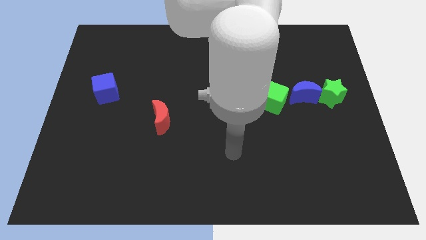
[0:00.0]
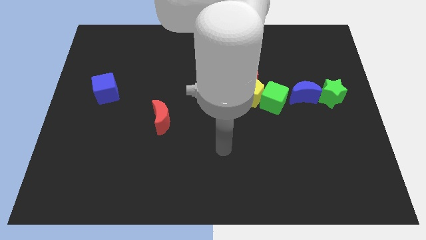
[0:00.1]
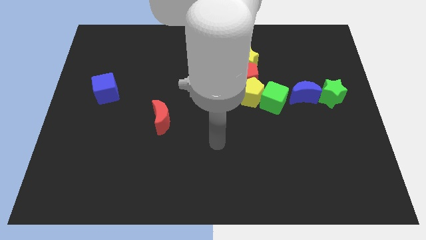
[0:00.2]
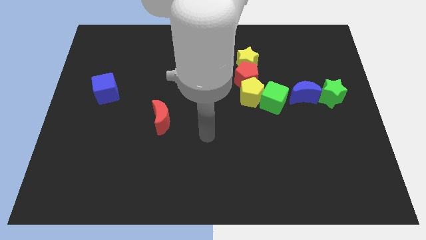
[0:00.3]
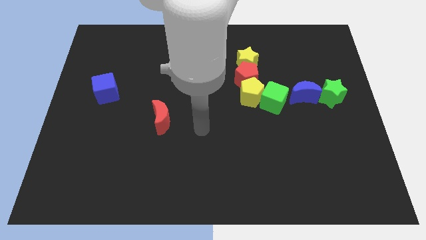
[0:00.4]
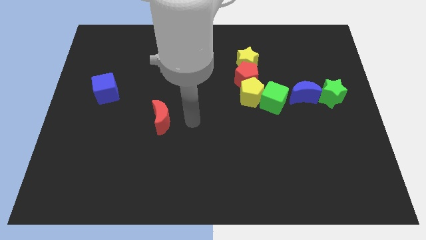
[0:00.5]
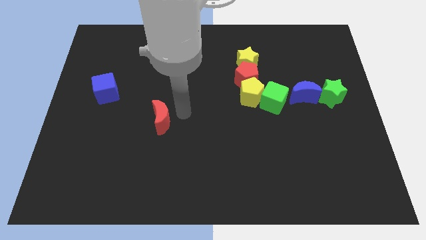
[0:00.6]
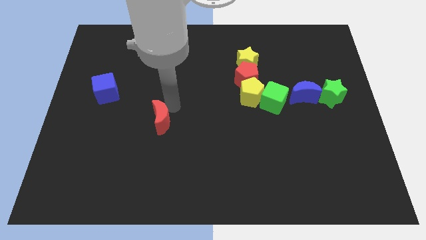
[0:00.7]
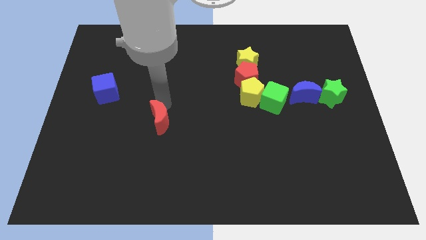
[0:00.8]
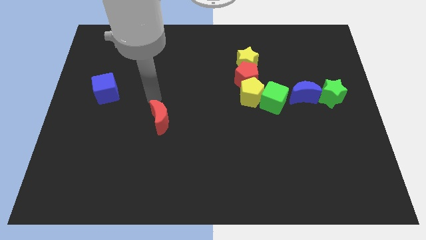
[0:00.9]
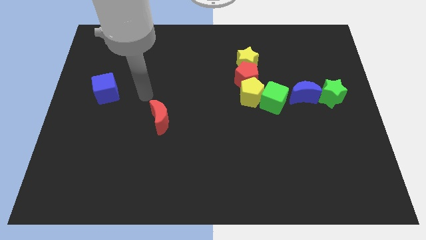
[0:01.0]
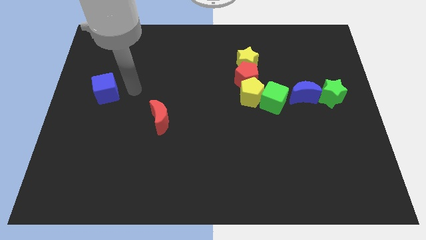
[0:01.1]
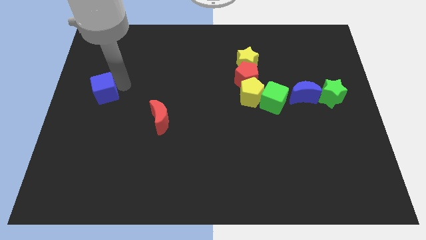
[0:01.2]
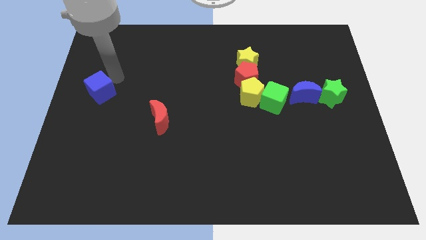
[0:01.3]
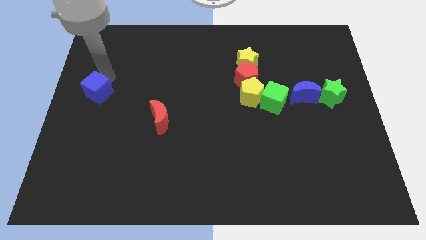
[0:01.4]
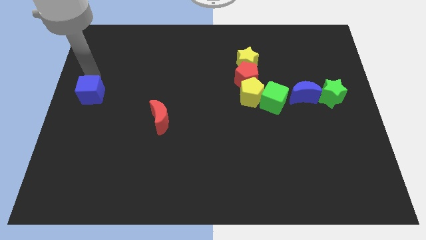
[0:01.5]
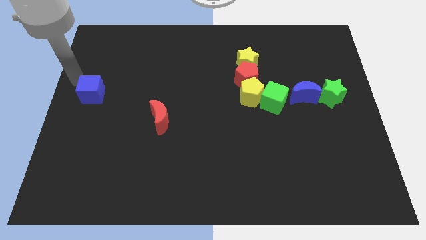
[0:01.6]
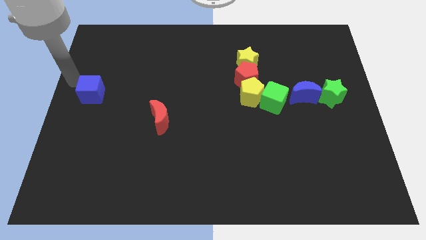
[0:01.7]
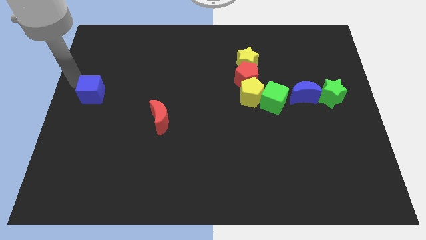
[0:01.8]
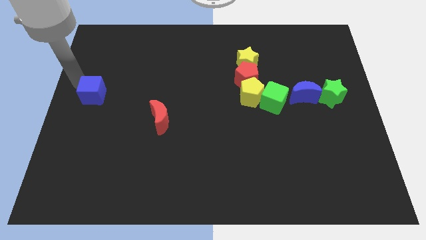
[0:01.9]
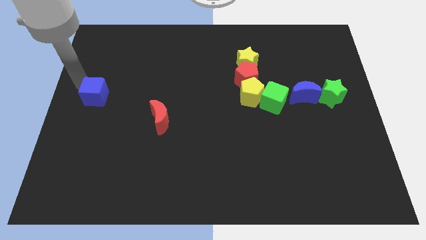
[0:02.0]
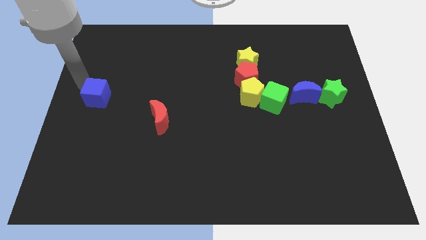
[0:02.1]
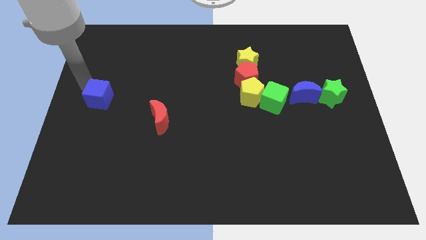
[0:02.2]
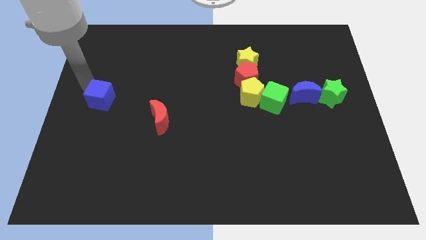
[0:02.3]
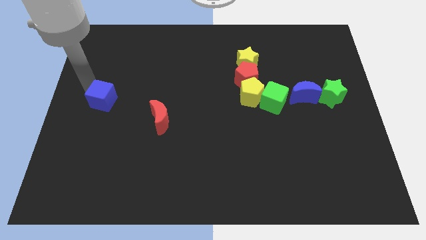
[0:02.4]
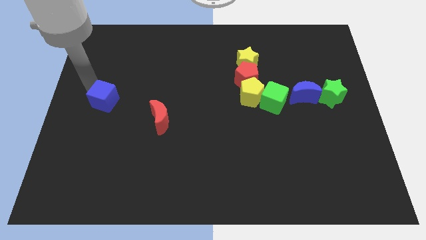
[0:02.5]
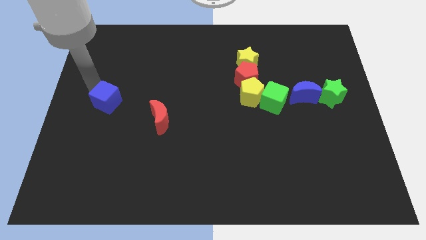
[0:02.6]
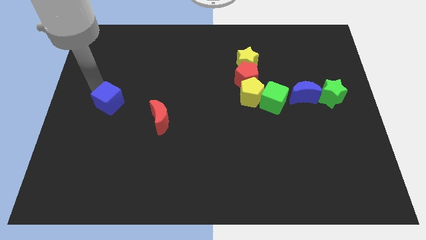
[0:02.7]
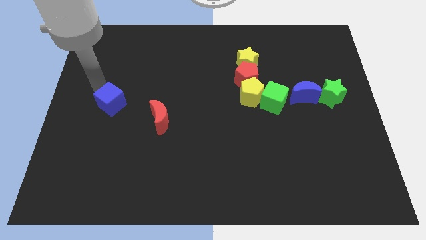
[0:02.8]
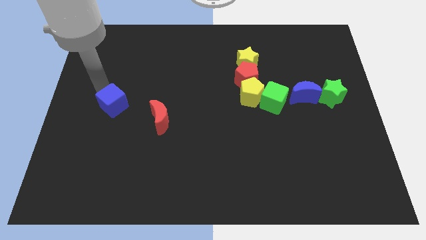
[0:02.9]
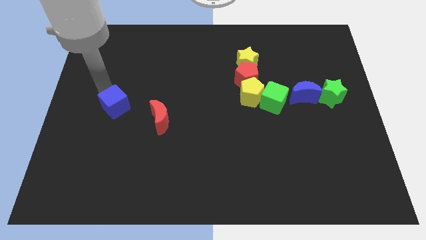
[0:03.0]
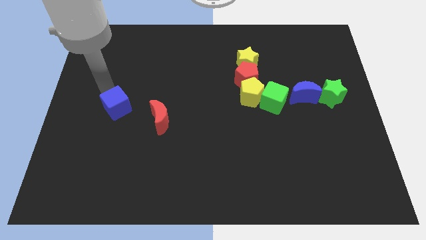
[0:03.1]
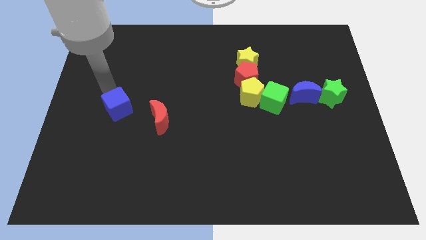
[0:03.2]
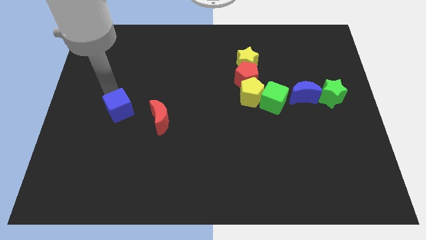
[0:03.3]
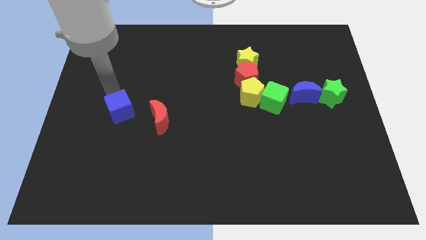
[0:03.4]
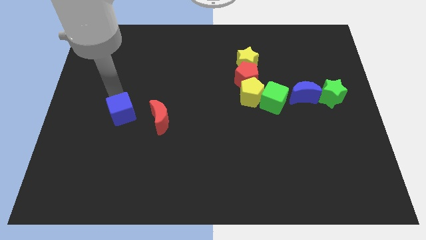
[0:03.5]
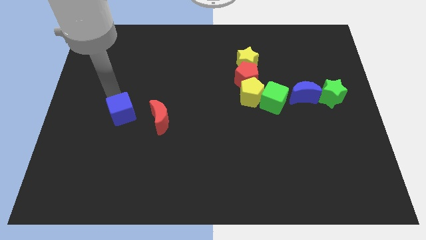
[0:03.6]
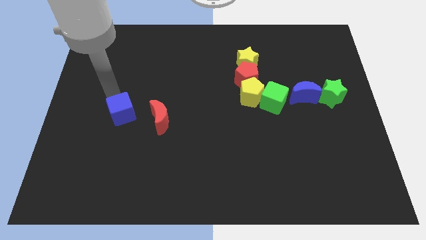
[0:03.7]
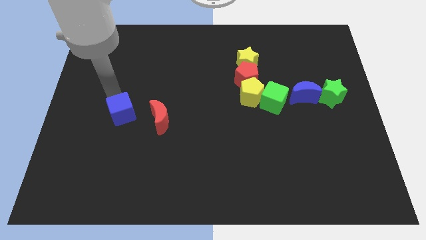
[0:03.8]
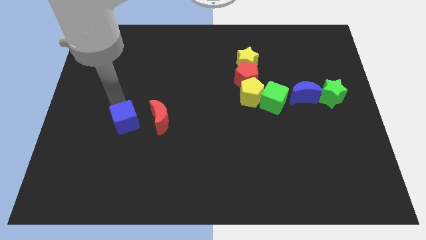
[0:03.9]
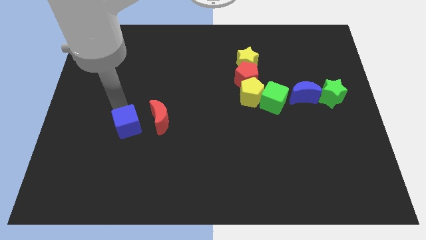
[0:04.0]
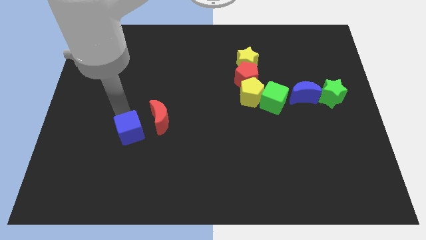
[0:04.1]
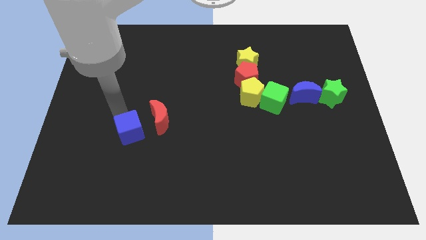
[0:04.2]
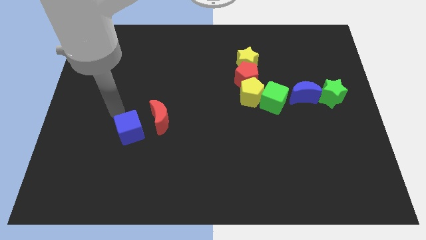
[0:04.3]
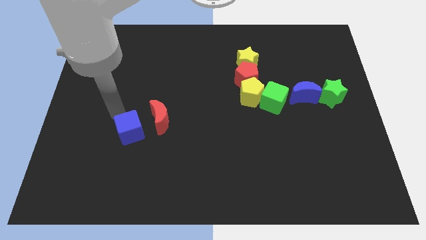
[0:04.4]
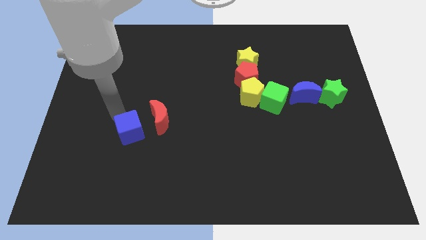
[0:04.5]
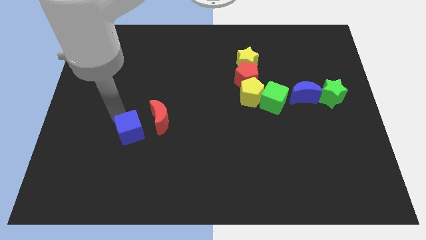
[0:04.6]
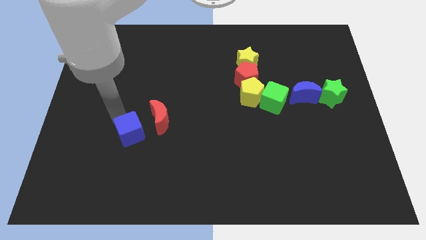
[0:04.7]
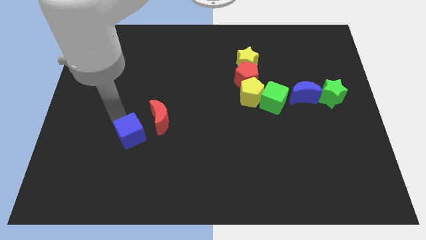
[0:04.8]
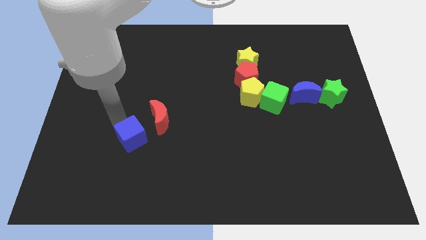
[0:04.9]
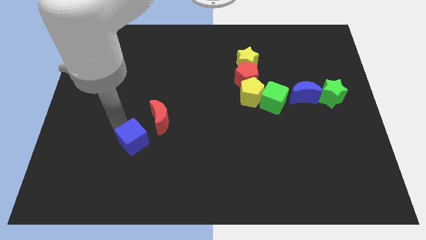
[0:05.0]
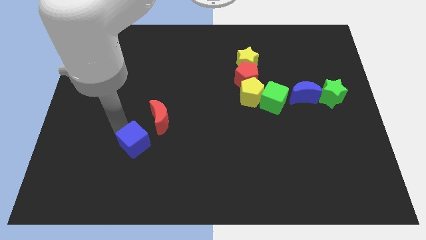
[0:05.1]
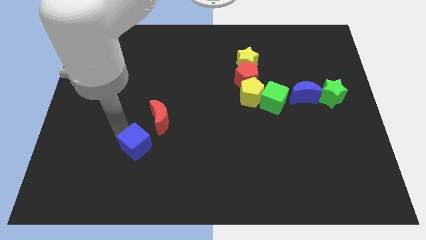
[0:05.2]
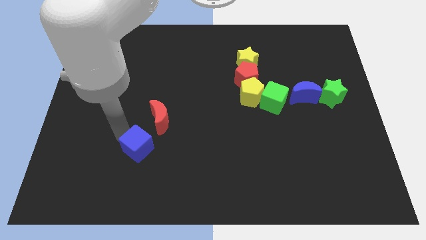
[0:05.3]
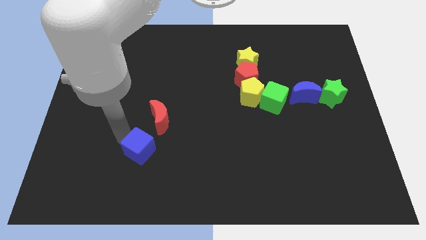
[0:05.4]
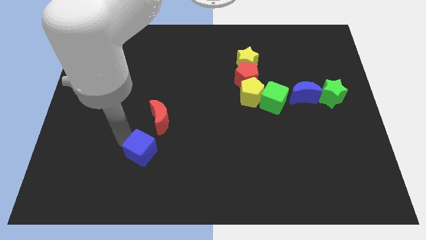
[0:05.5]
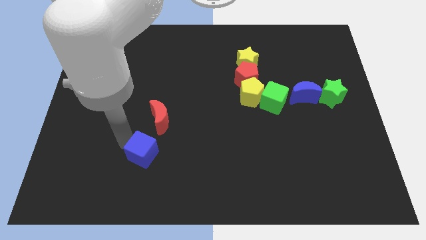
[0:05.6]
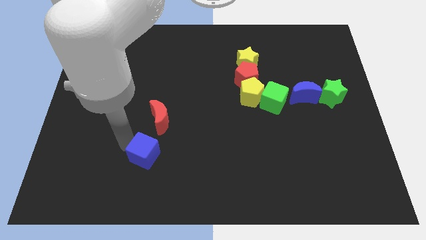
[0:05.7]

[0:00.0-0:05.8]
move the blue cube downwards and to the right

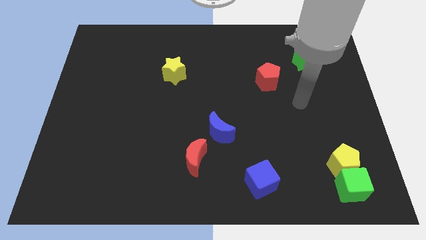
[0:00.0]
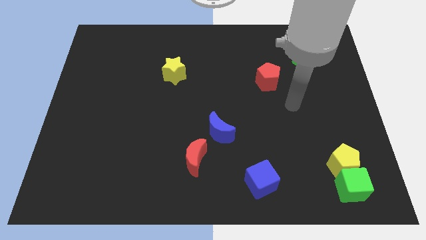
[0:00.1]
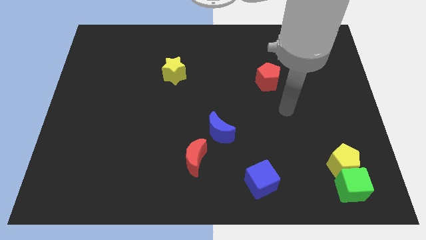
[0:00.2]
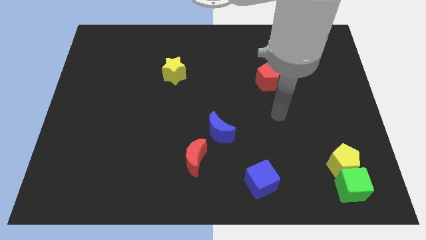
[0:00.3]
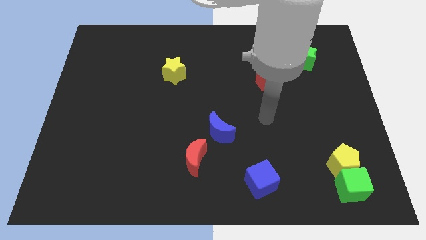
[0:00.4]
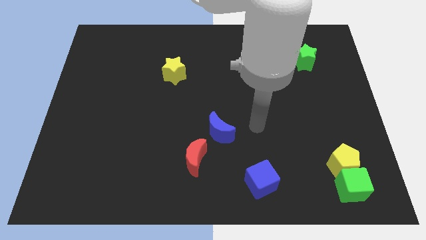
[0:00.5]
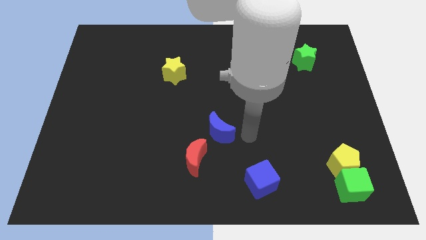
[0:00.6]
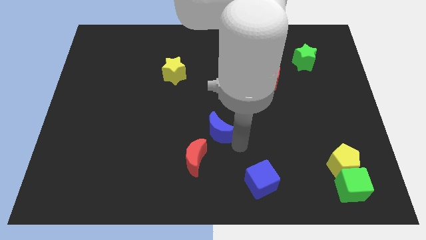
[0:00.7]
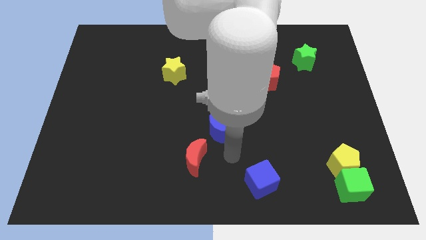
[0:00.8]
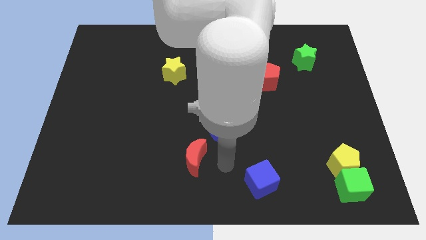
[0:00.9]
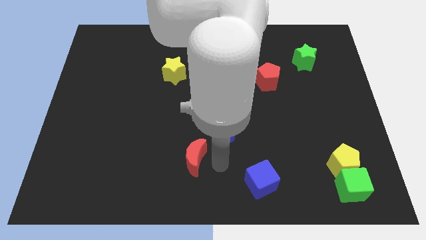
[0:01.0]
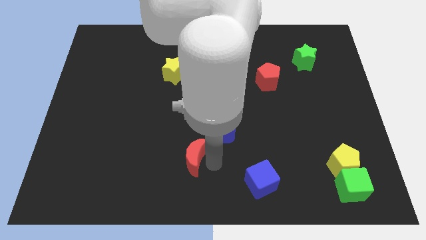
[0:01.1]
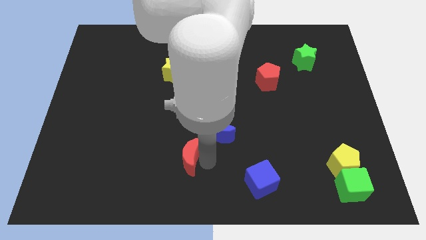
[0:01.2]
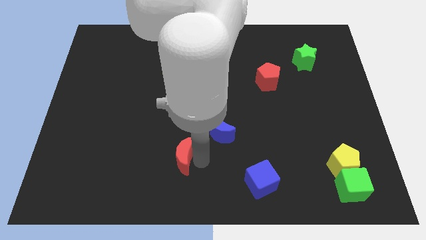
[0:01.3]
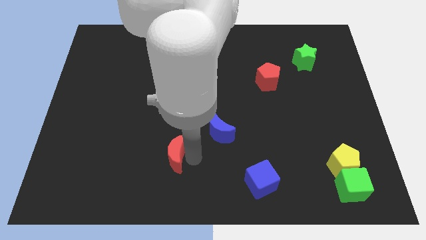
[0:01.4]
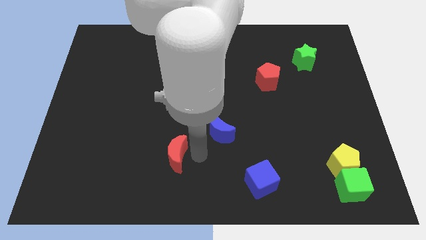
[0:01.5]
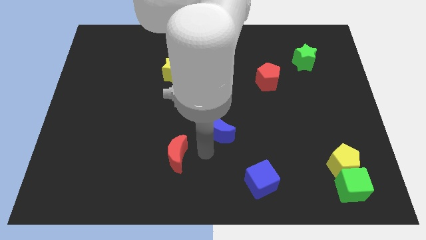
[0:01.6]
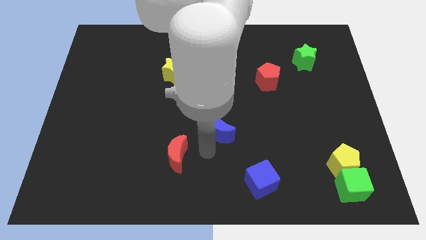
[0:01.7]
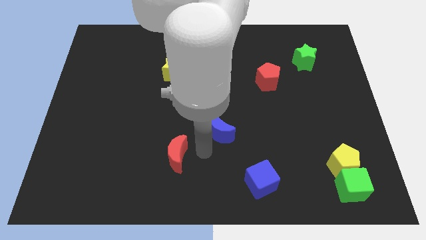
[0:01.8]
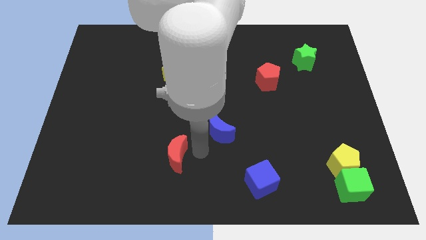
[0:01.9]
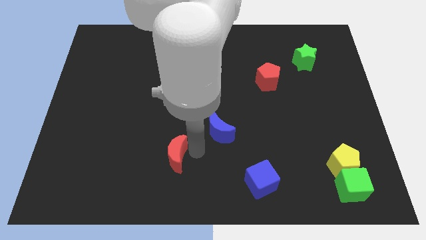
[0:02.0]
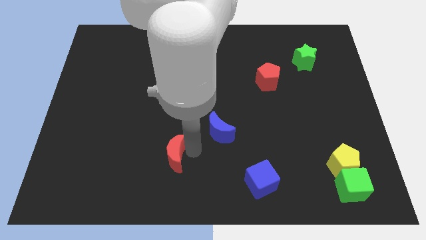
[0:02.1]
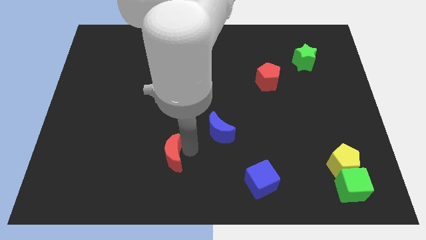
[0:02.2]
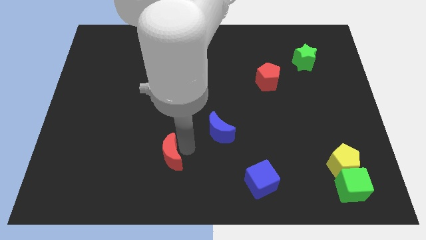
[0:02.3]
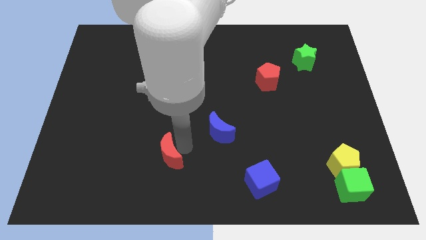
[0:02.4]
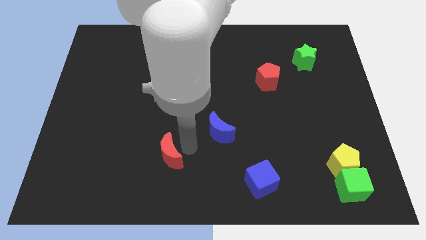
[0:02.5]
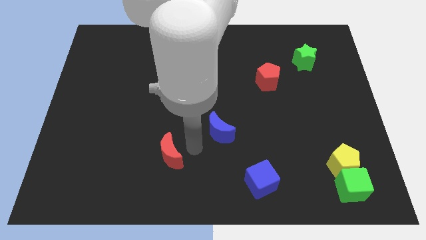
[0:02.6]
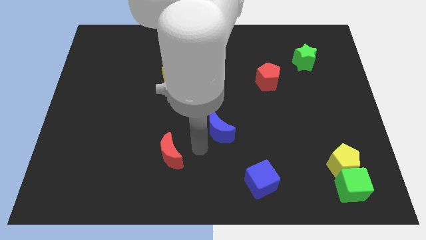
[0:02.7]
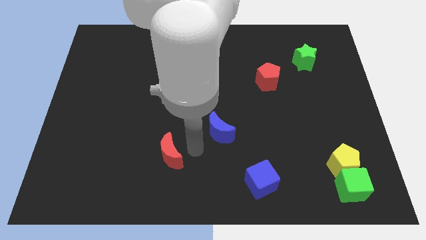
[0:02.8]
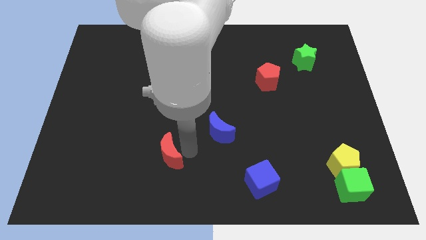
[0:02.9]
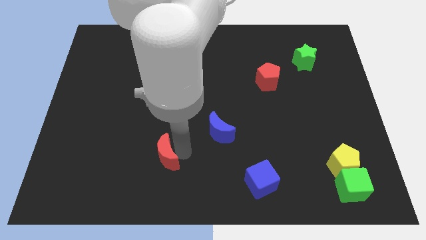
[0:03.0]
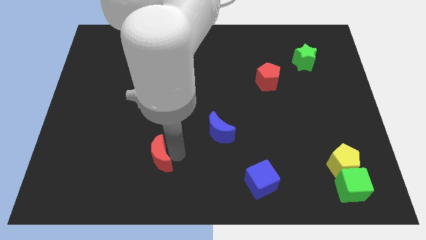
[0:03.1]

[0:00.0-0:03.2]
slightly push the red moon left
